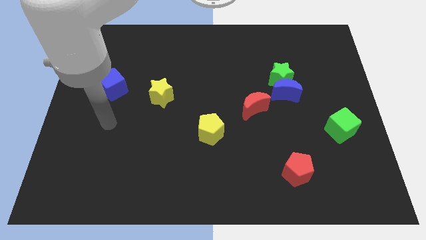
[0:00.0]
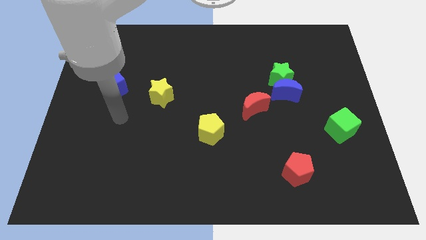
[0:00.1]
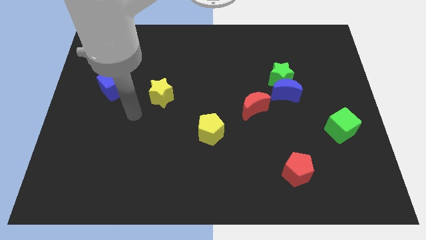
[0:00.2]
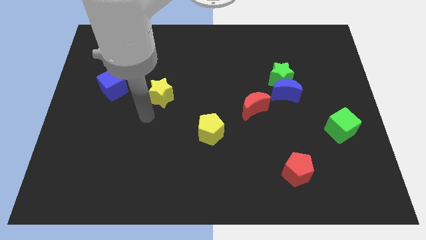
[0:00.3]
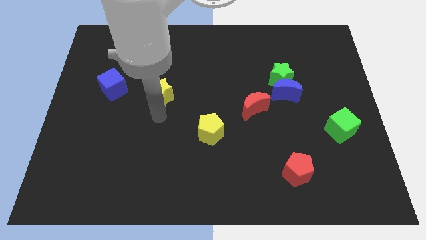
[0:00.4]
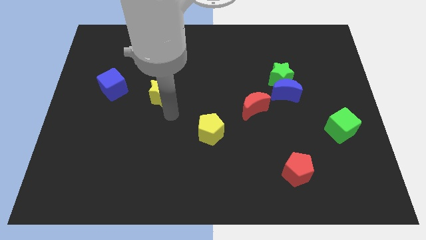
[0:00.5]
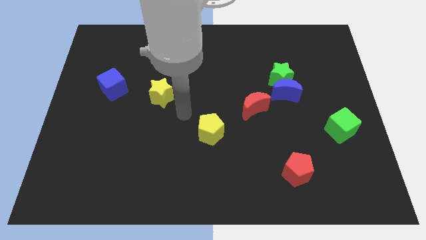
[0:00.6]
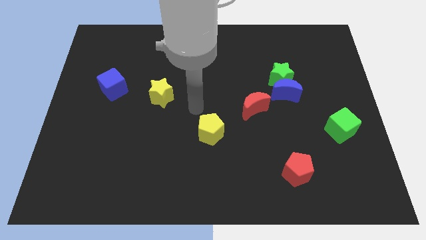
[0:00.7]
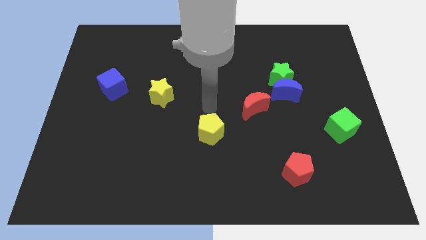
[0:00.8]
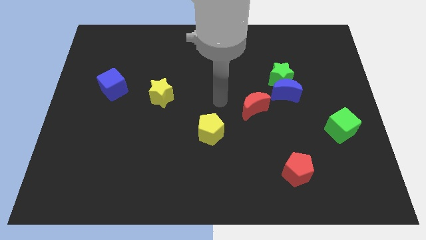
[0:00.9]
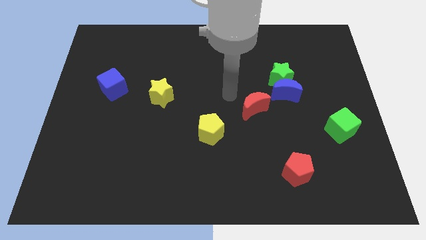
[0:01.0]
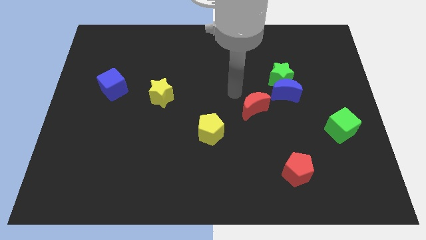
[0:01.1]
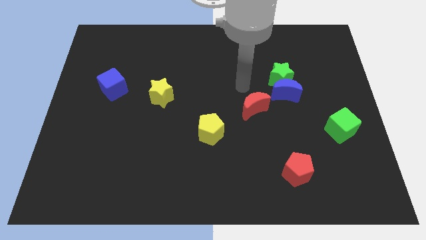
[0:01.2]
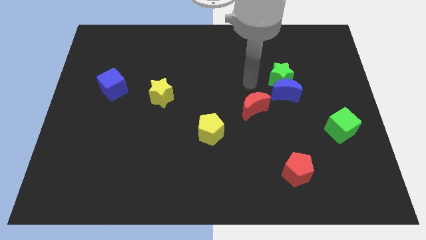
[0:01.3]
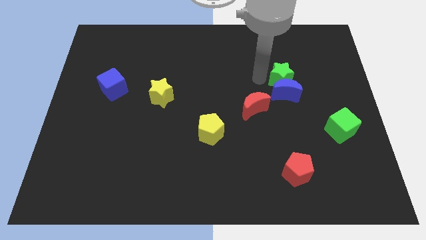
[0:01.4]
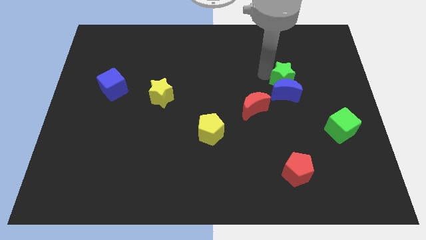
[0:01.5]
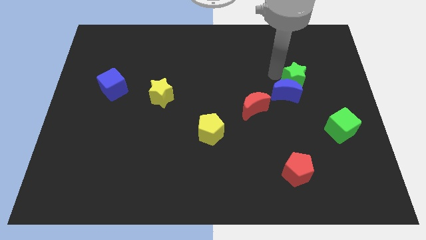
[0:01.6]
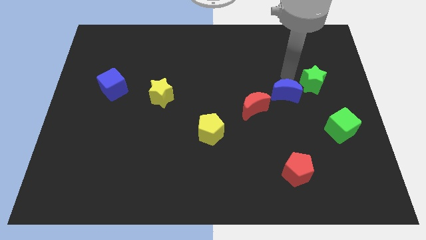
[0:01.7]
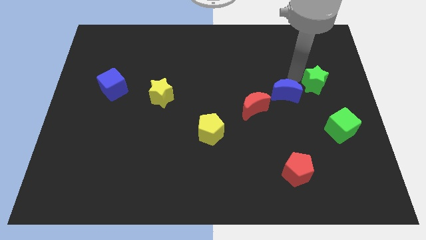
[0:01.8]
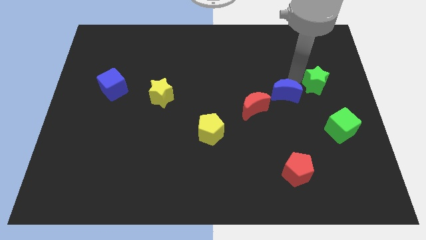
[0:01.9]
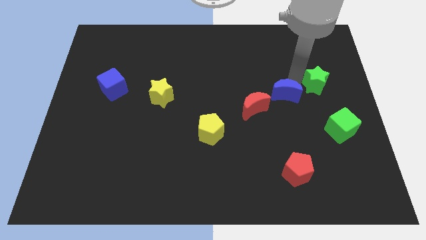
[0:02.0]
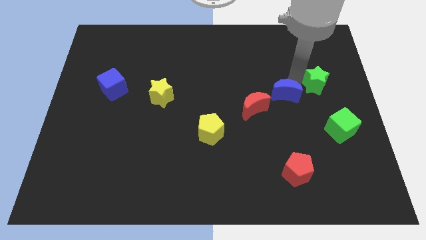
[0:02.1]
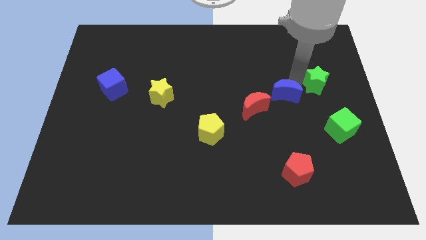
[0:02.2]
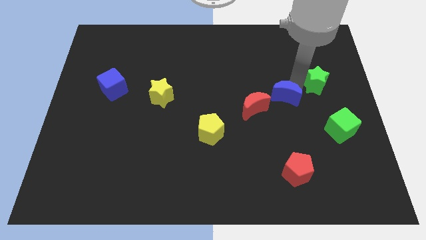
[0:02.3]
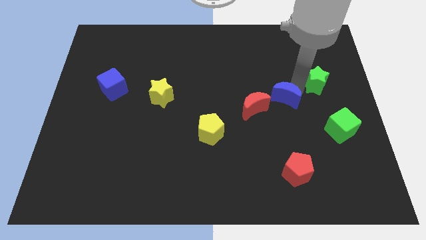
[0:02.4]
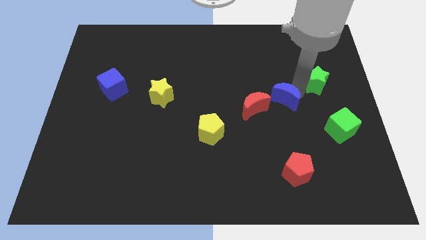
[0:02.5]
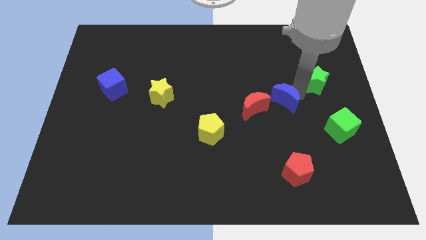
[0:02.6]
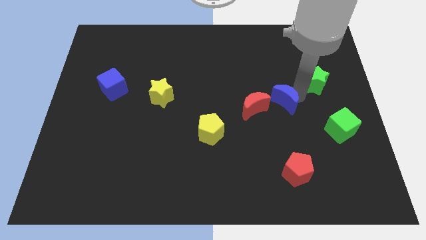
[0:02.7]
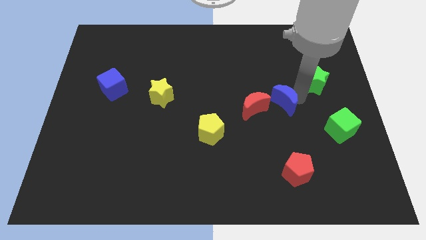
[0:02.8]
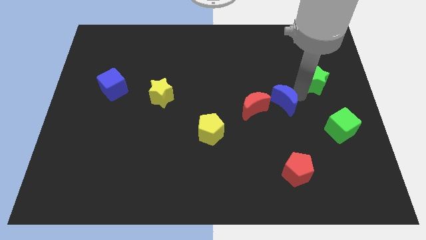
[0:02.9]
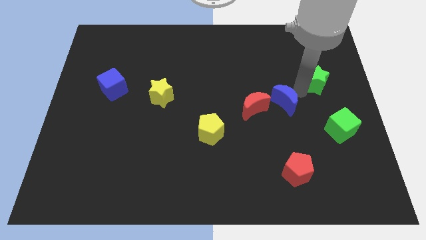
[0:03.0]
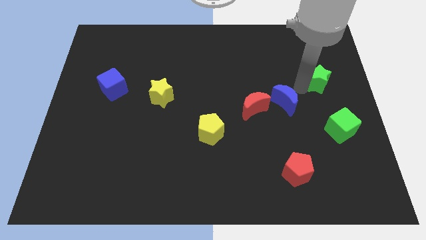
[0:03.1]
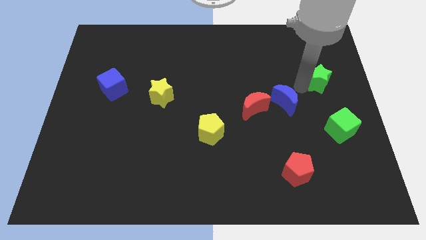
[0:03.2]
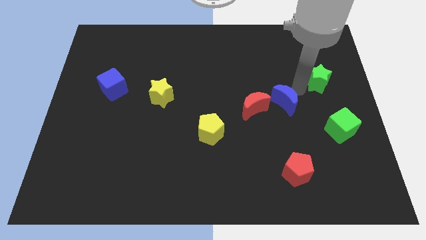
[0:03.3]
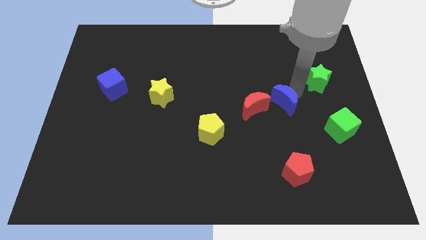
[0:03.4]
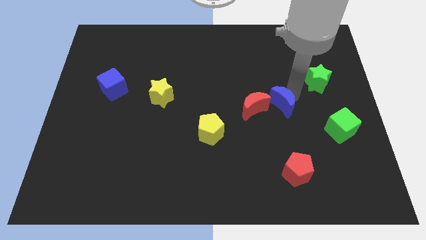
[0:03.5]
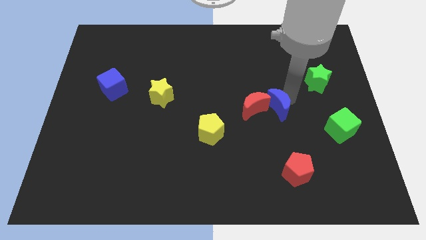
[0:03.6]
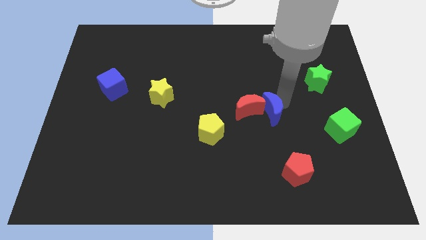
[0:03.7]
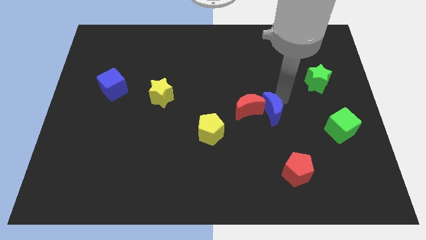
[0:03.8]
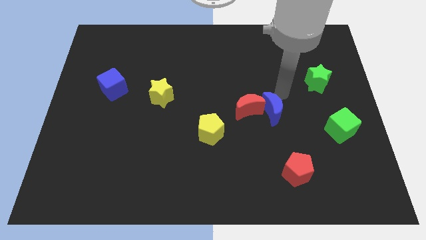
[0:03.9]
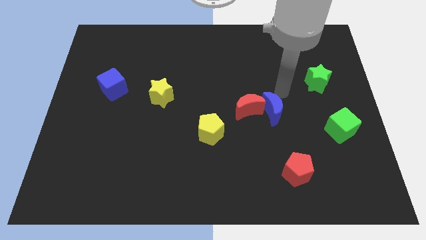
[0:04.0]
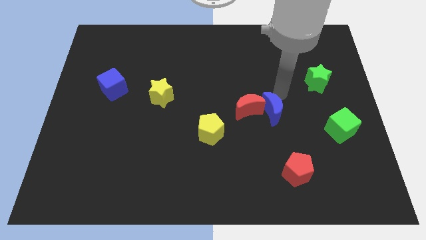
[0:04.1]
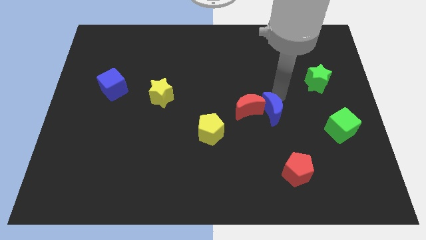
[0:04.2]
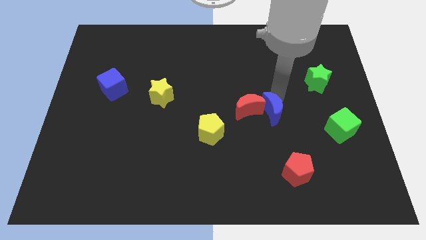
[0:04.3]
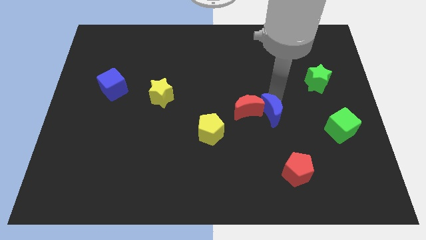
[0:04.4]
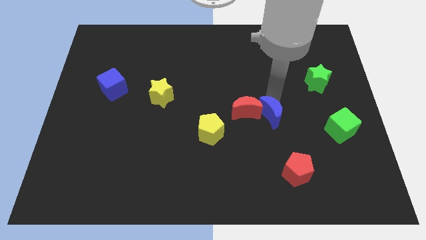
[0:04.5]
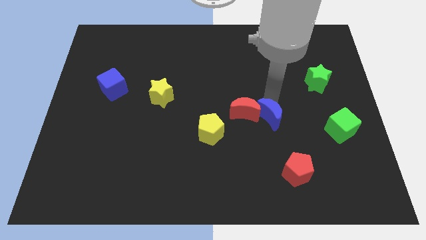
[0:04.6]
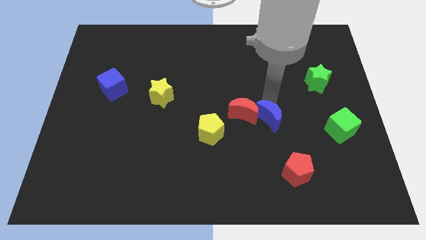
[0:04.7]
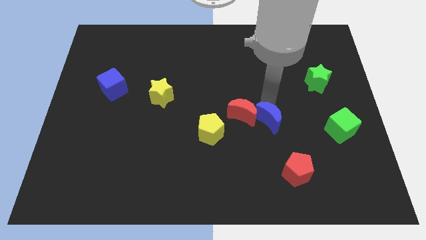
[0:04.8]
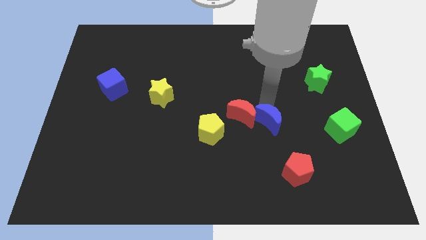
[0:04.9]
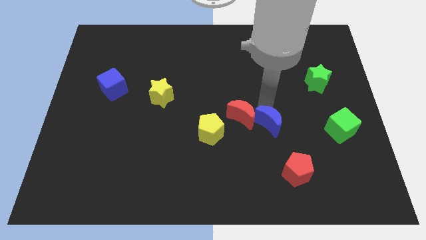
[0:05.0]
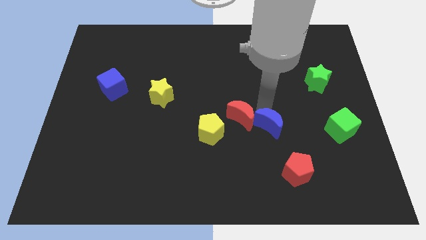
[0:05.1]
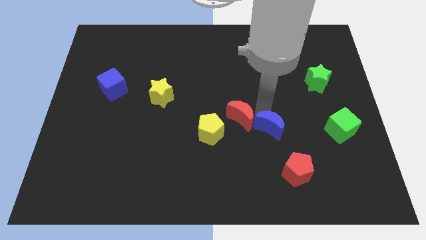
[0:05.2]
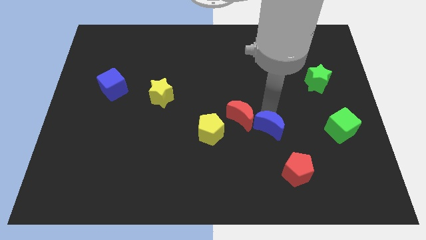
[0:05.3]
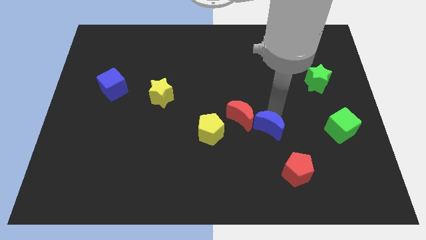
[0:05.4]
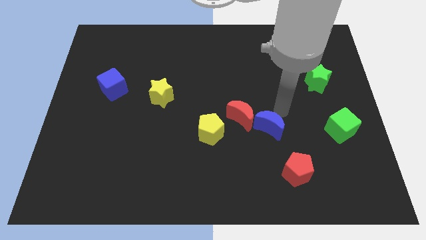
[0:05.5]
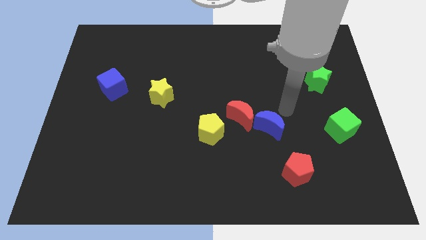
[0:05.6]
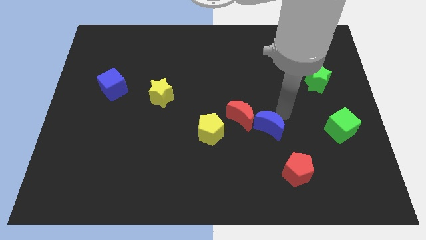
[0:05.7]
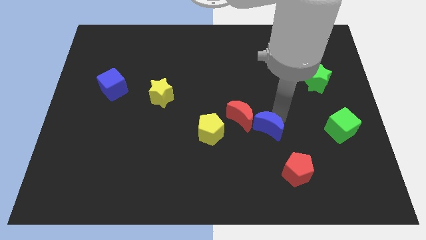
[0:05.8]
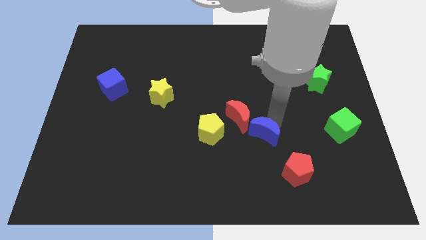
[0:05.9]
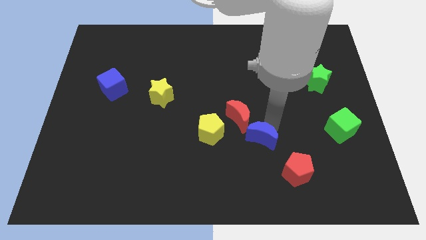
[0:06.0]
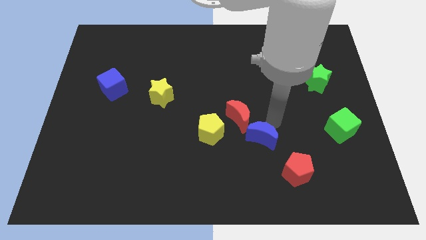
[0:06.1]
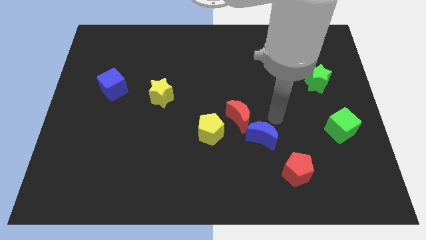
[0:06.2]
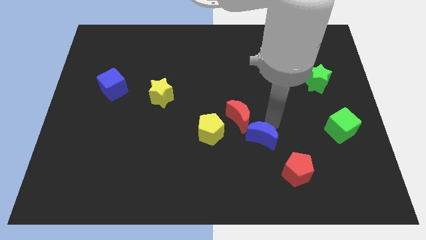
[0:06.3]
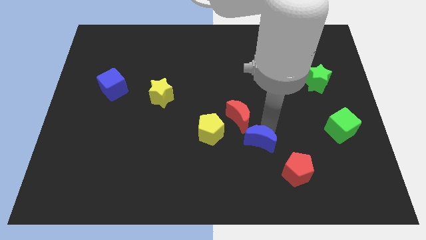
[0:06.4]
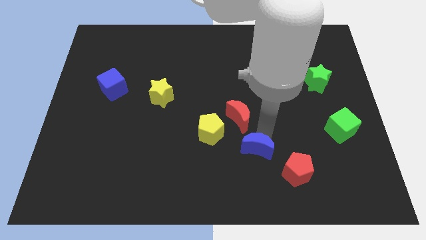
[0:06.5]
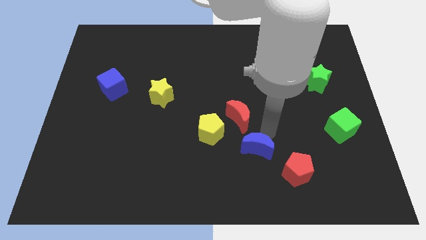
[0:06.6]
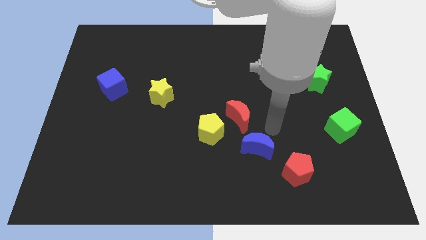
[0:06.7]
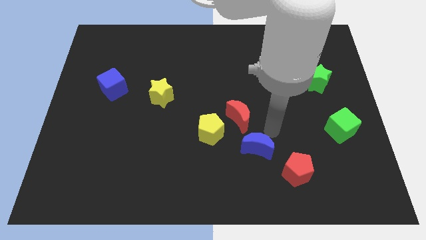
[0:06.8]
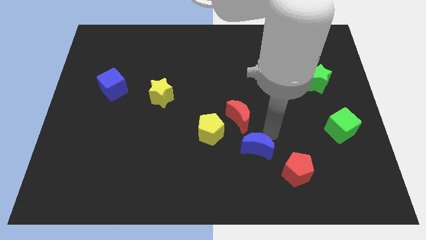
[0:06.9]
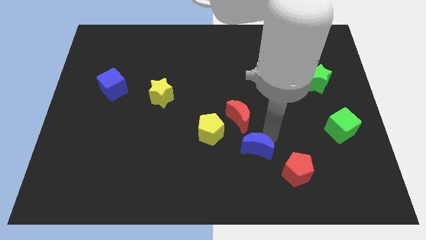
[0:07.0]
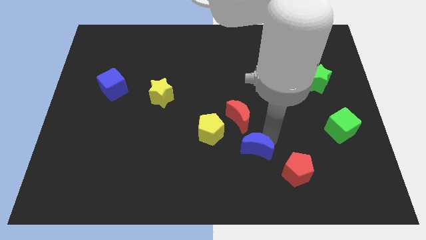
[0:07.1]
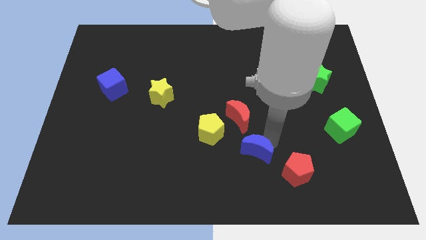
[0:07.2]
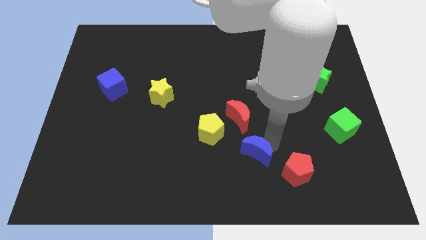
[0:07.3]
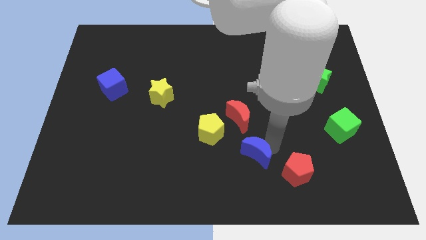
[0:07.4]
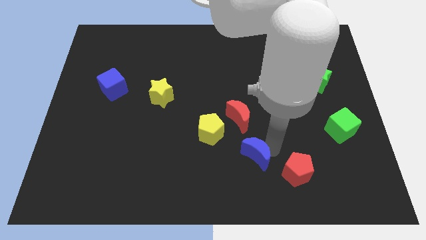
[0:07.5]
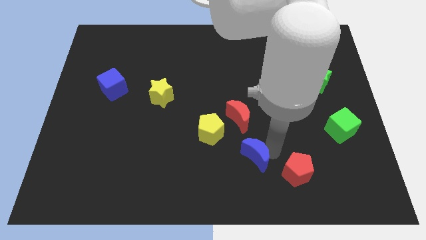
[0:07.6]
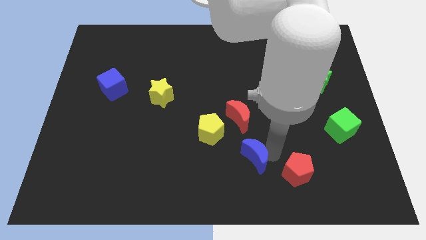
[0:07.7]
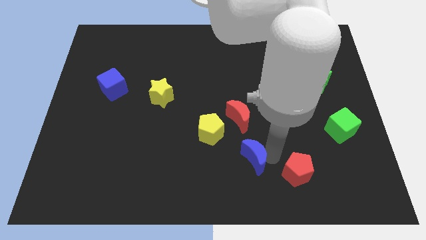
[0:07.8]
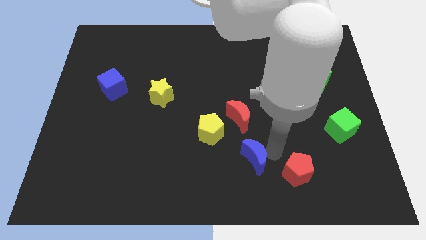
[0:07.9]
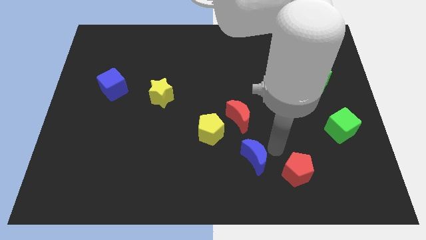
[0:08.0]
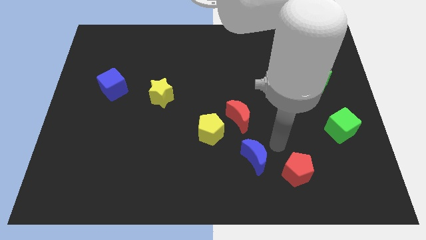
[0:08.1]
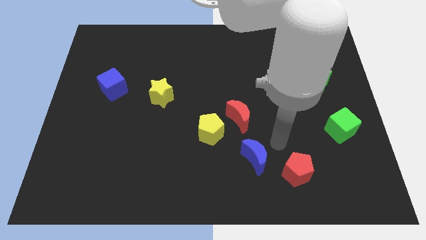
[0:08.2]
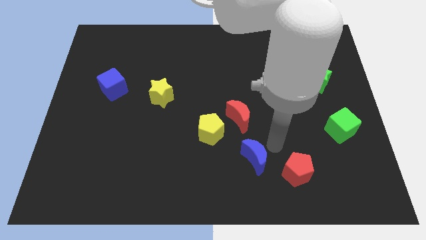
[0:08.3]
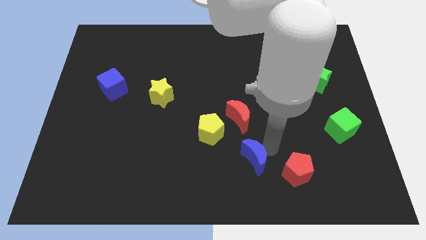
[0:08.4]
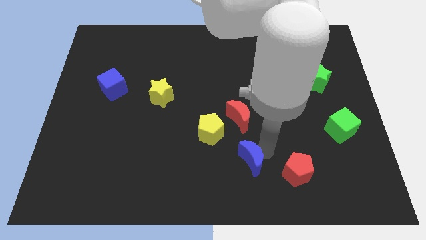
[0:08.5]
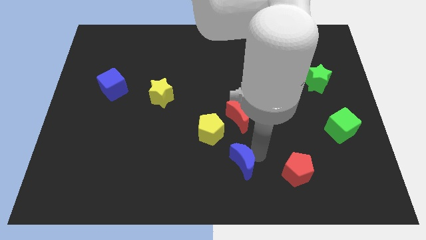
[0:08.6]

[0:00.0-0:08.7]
push the blue moon to the bottom
